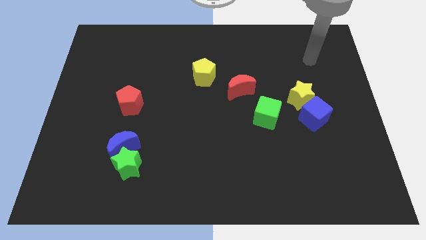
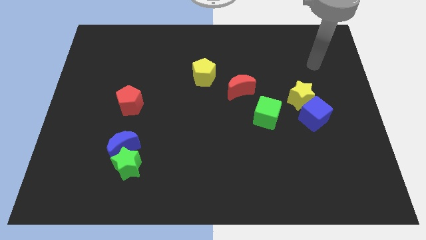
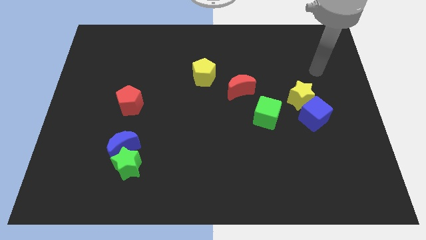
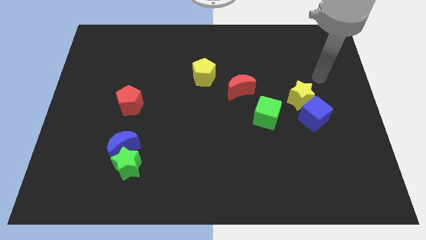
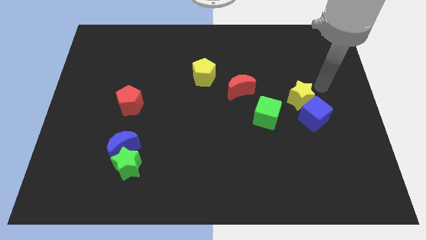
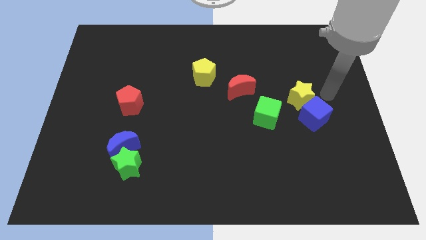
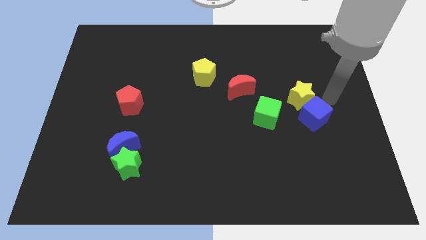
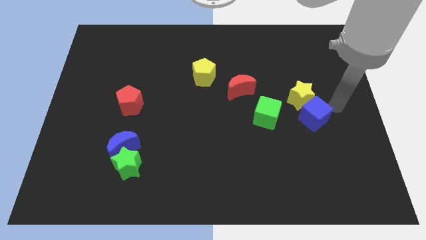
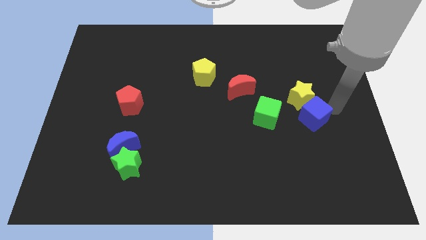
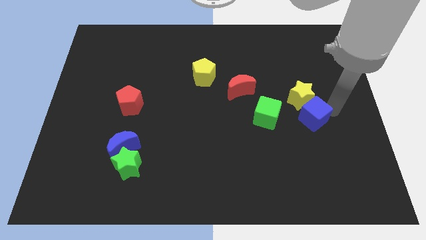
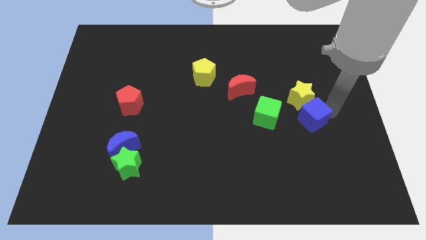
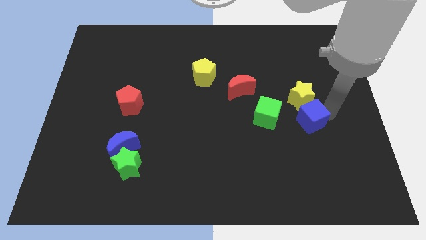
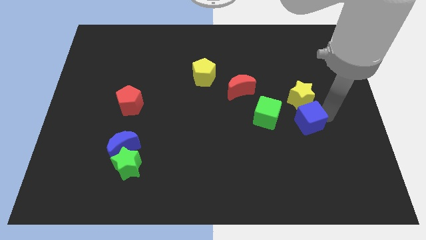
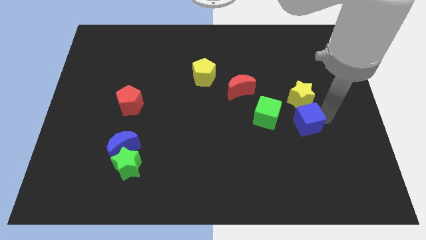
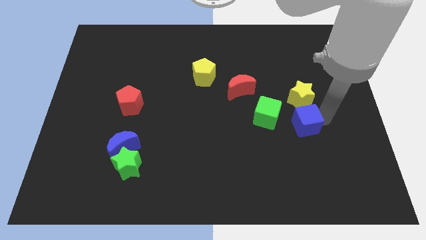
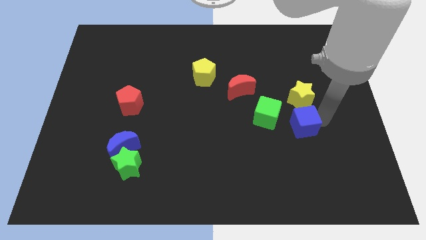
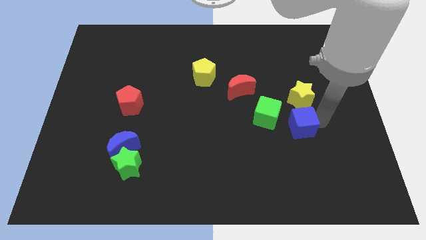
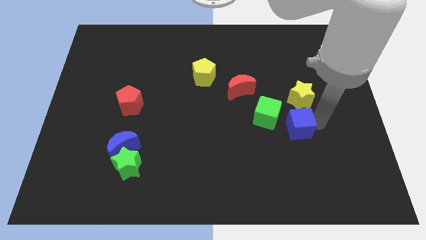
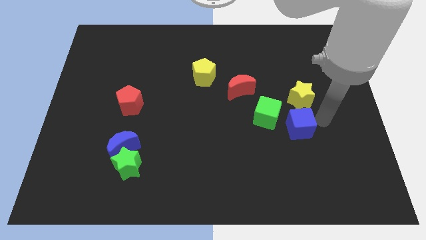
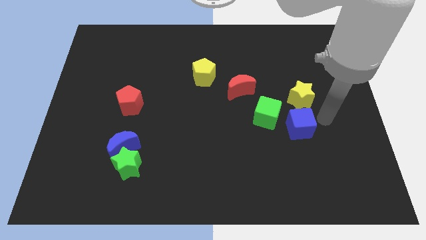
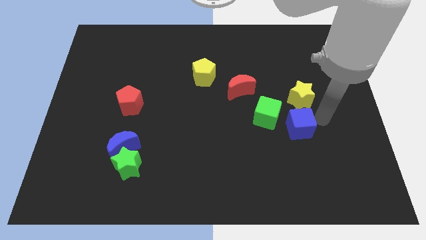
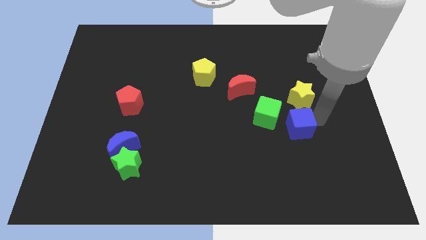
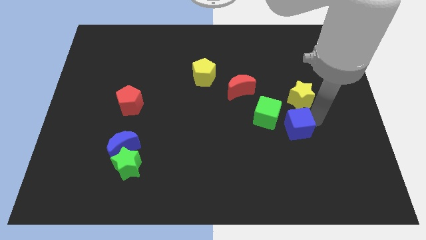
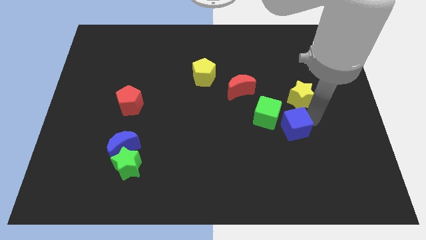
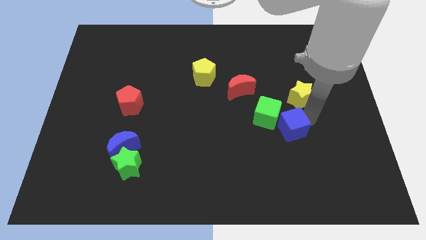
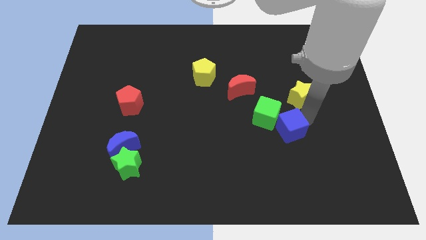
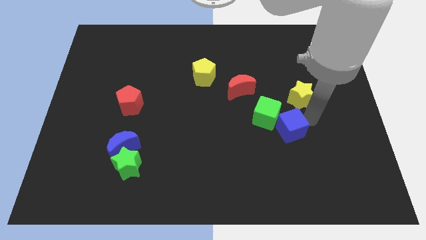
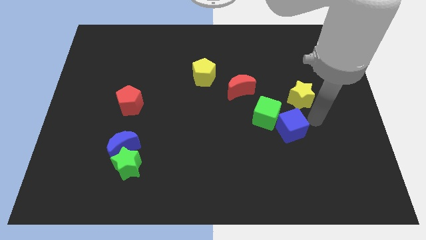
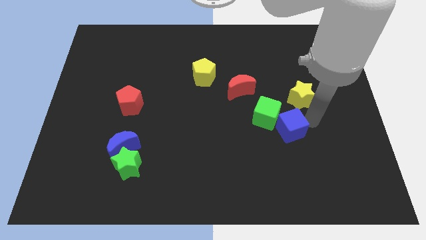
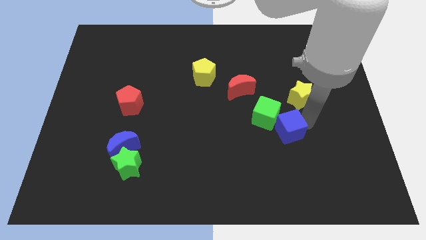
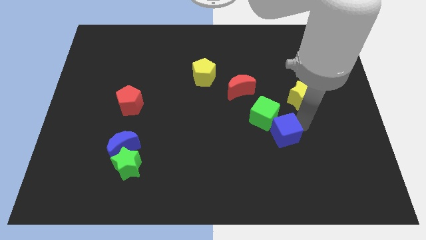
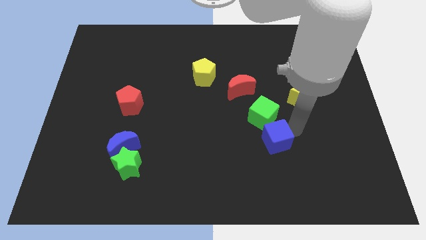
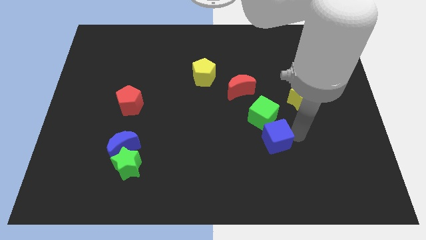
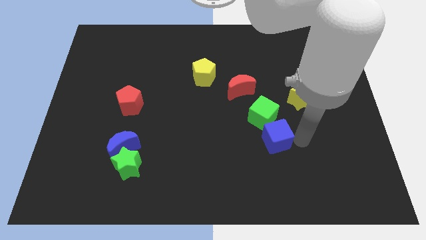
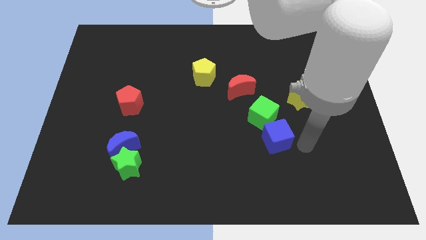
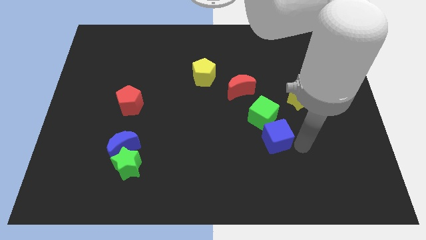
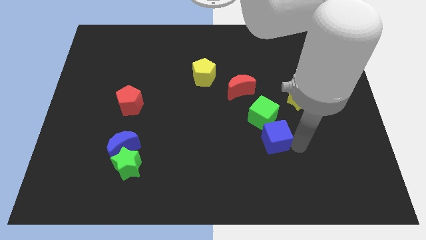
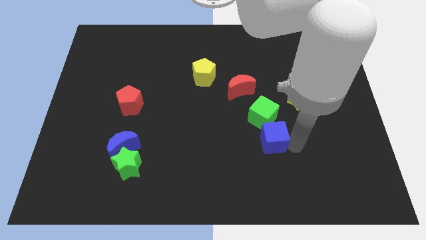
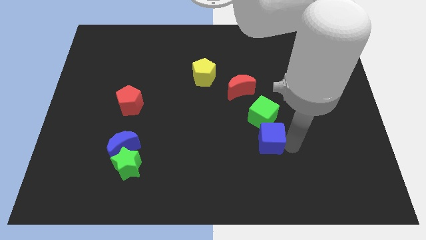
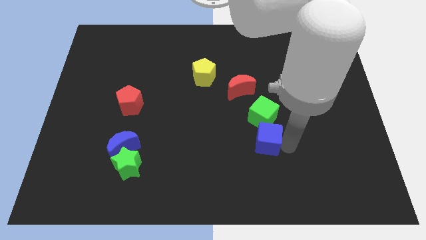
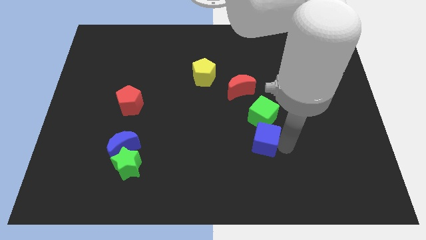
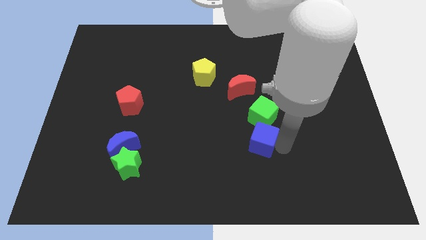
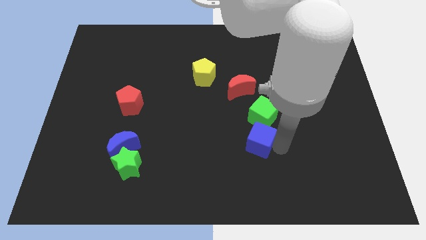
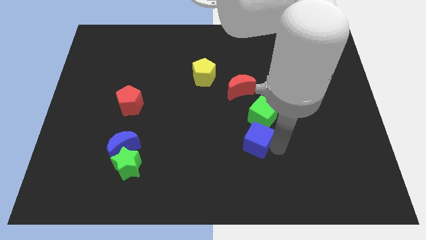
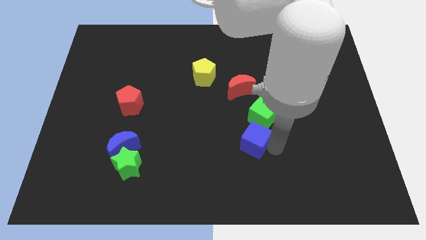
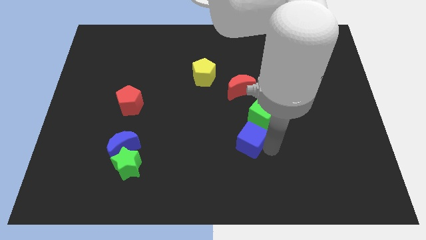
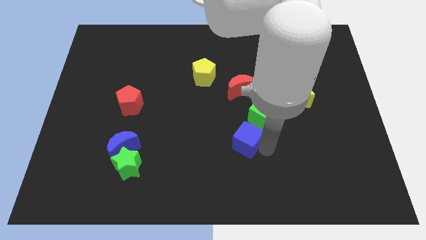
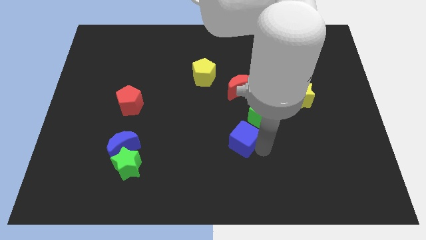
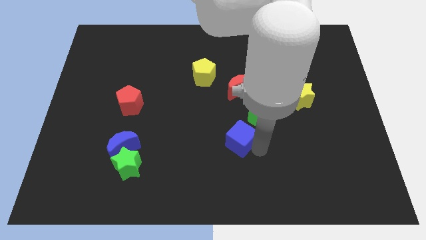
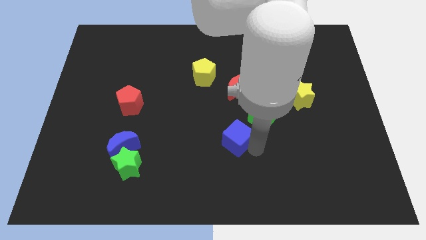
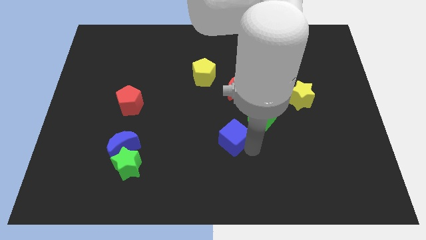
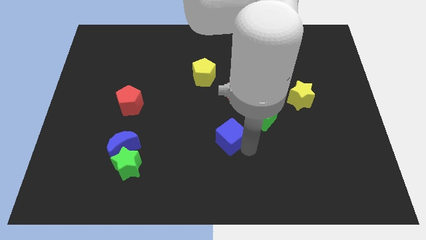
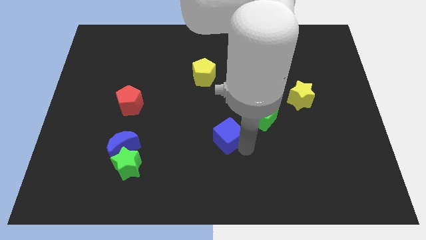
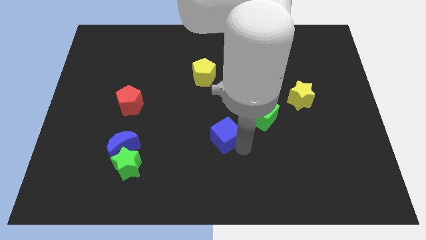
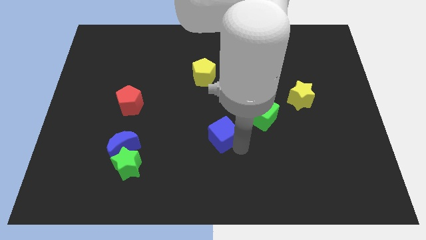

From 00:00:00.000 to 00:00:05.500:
move the blue cube to the left

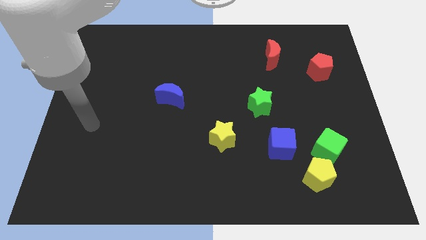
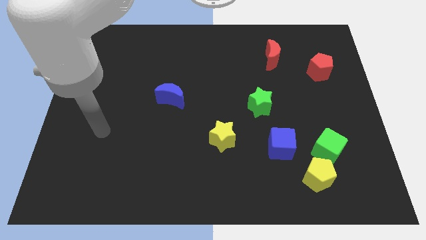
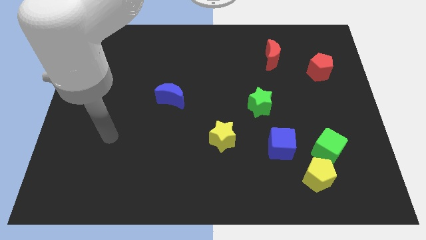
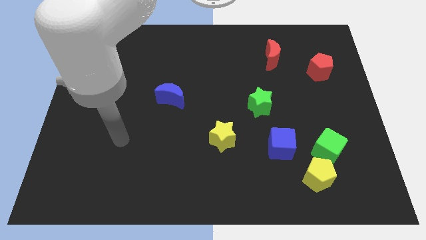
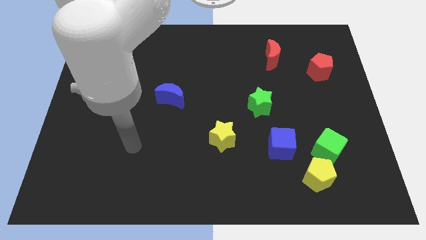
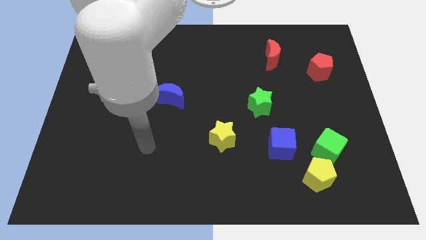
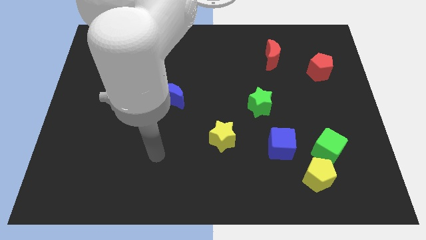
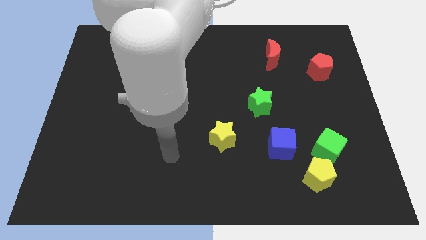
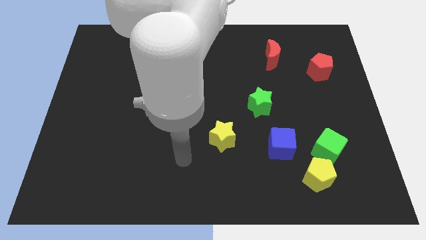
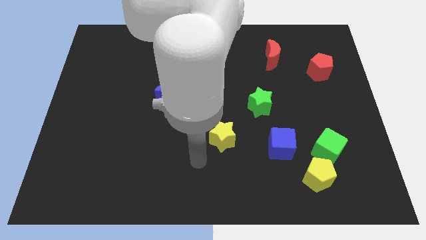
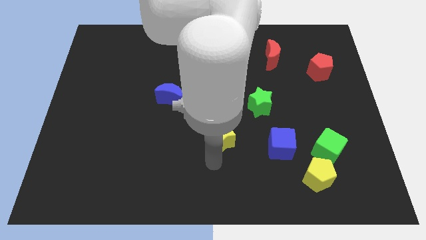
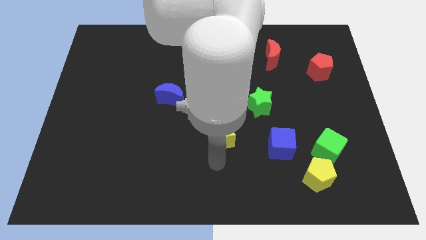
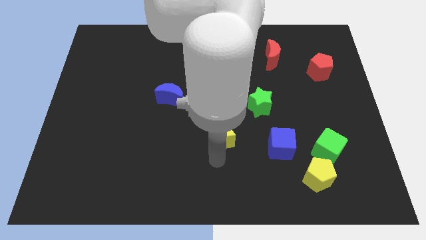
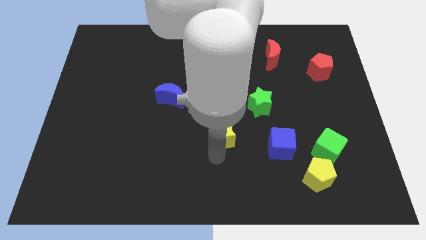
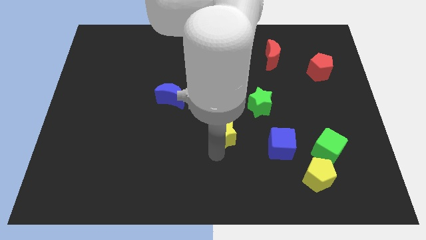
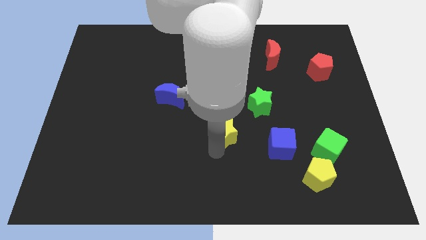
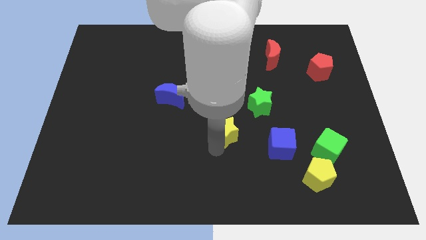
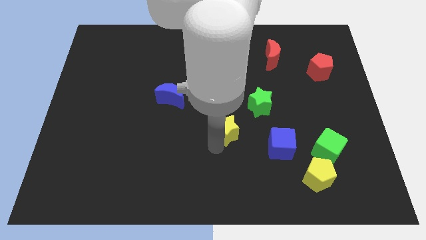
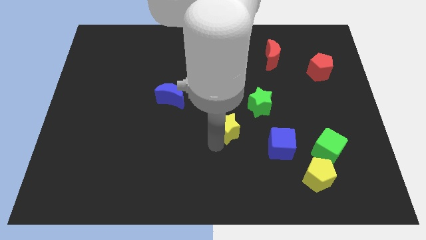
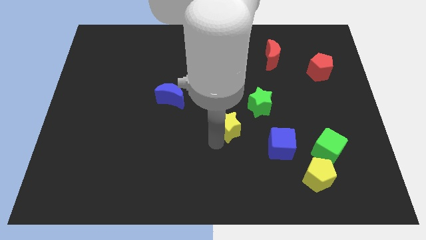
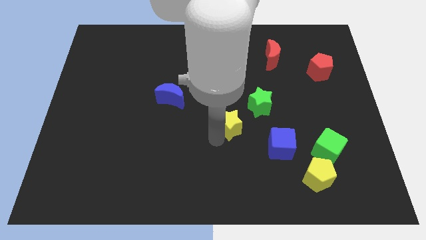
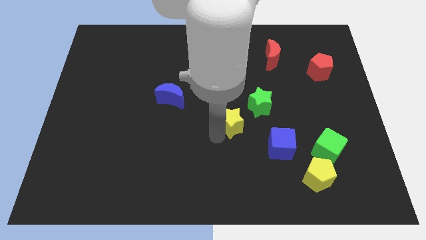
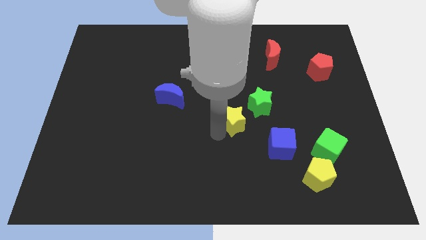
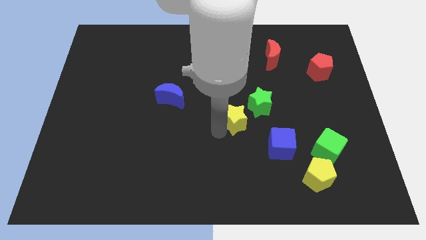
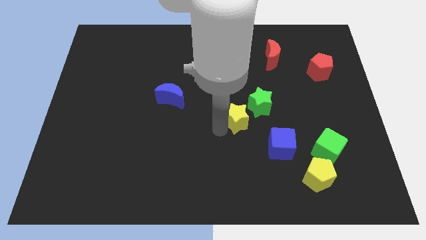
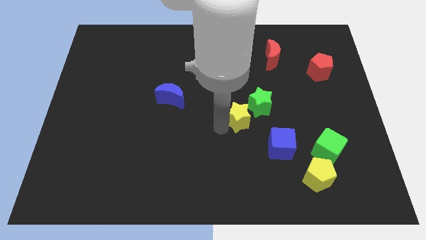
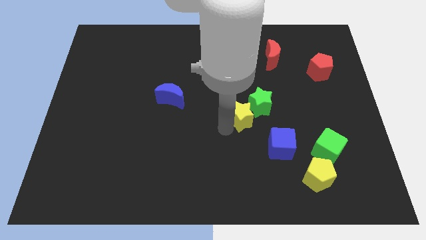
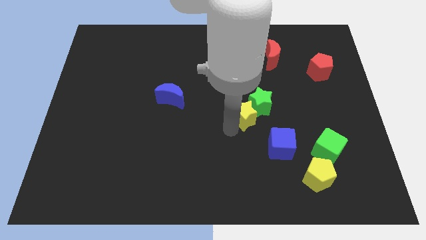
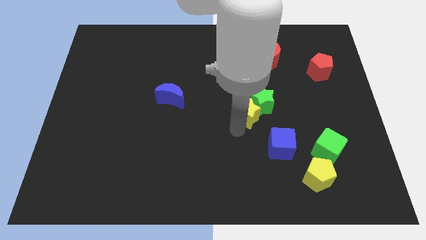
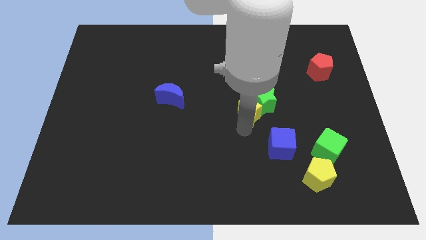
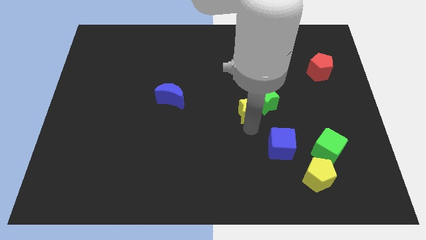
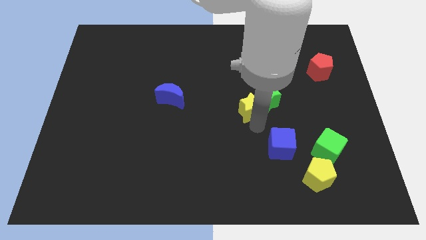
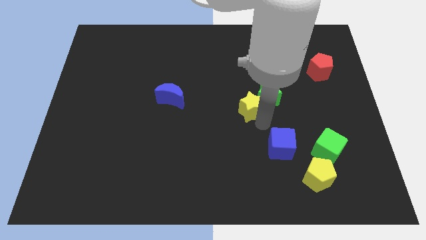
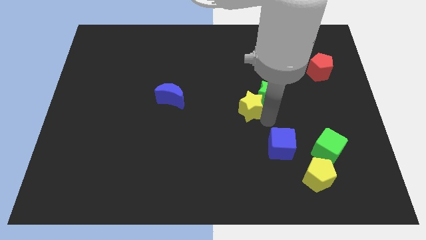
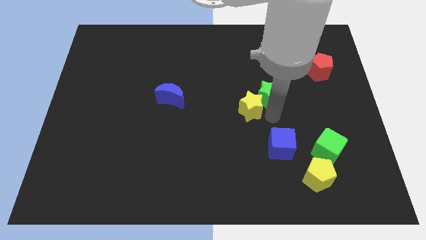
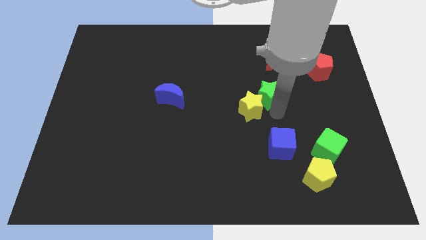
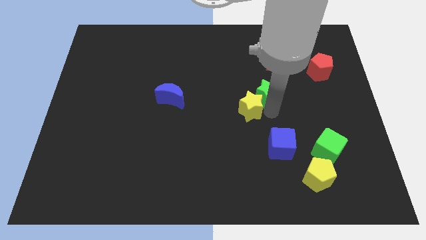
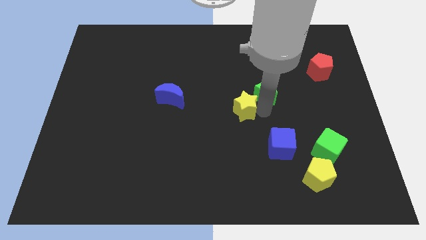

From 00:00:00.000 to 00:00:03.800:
move the yellow star upwards somewhat
